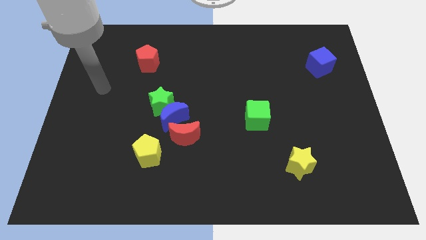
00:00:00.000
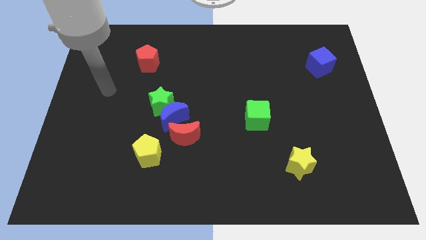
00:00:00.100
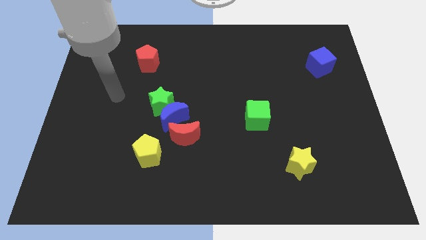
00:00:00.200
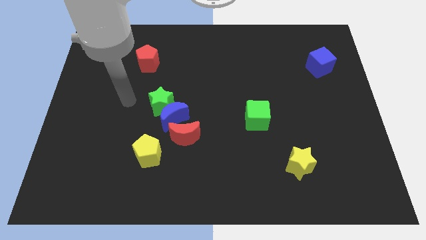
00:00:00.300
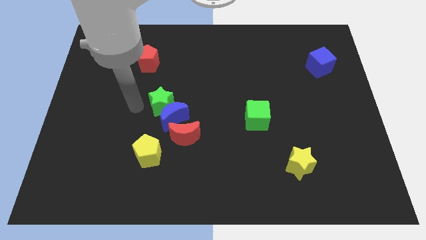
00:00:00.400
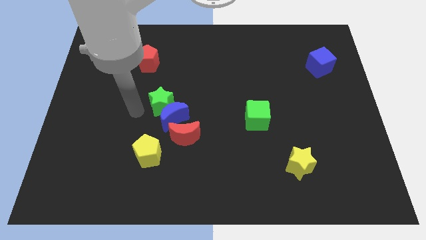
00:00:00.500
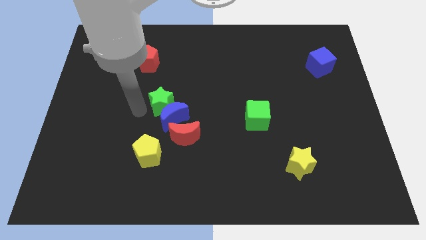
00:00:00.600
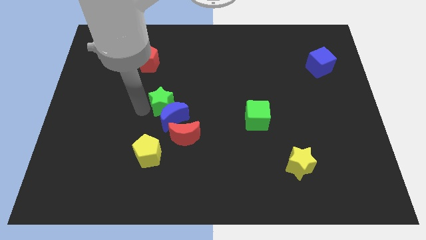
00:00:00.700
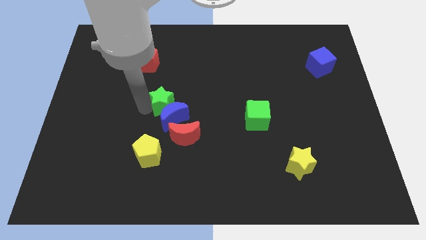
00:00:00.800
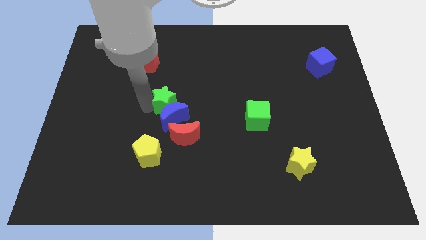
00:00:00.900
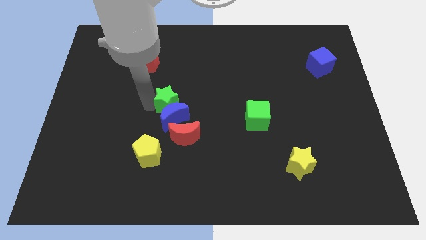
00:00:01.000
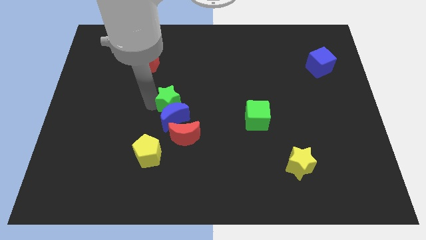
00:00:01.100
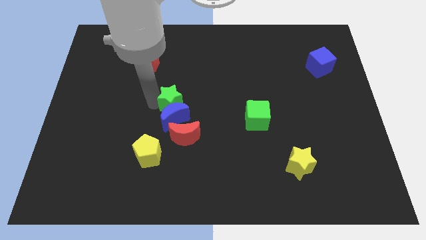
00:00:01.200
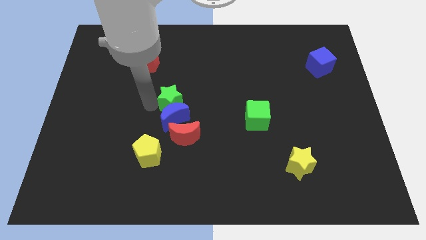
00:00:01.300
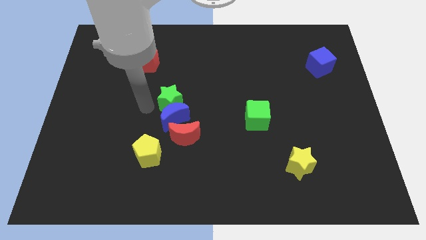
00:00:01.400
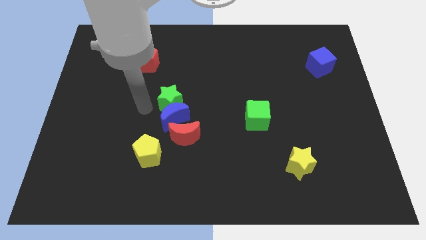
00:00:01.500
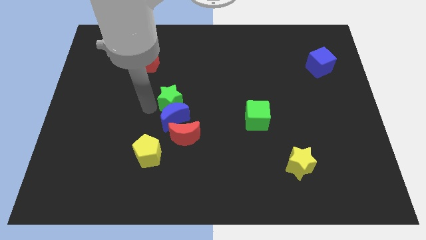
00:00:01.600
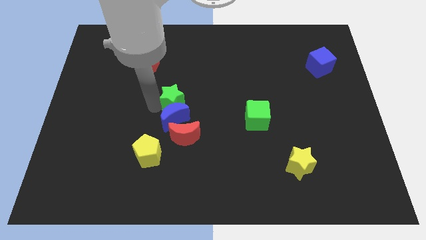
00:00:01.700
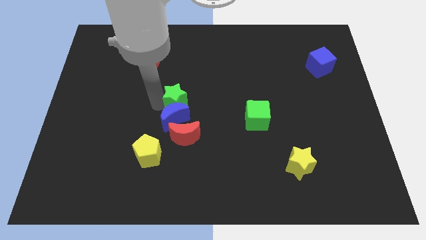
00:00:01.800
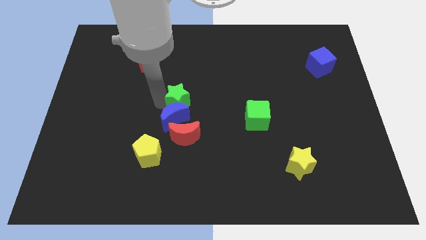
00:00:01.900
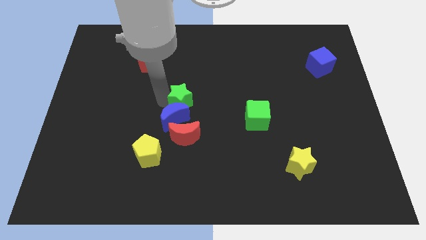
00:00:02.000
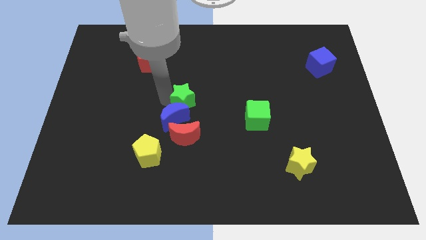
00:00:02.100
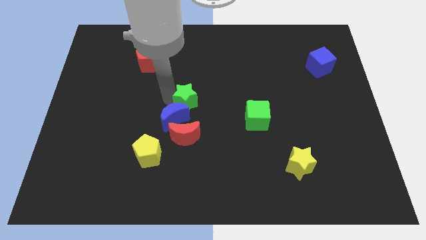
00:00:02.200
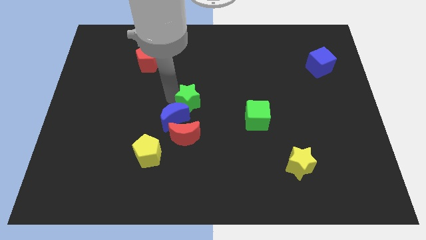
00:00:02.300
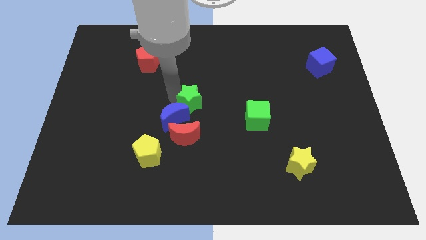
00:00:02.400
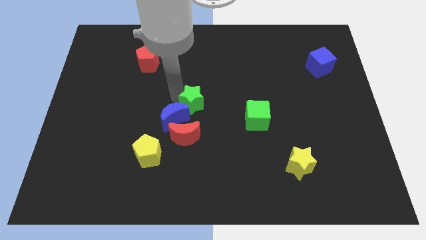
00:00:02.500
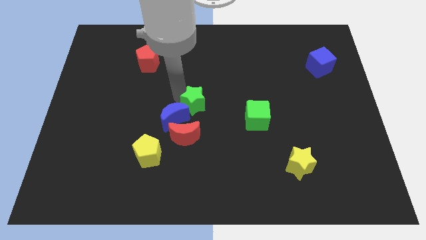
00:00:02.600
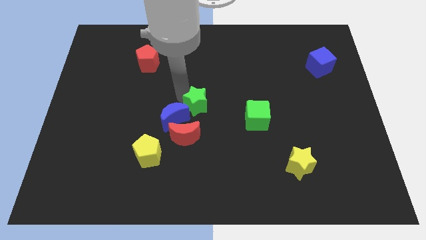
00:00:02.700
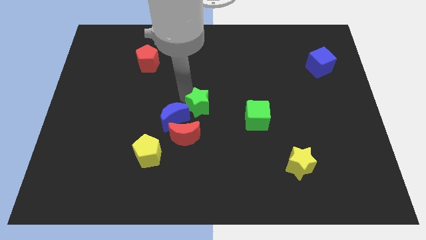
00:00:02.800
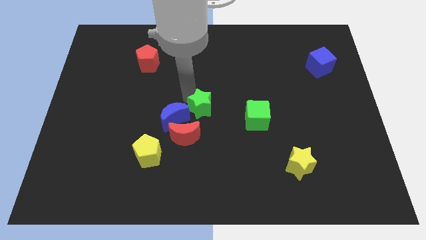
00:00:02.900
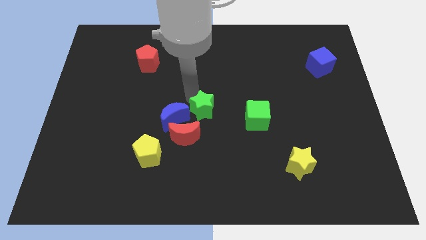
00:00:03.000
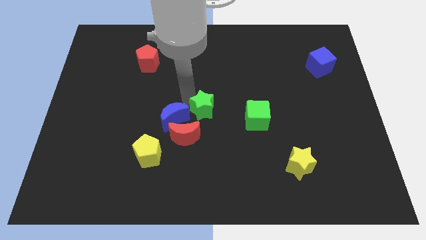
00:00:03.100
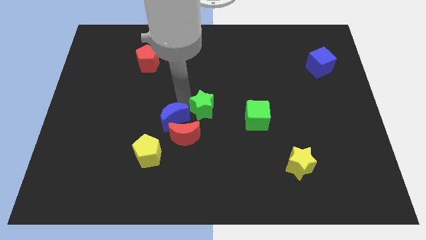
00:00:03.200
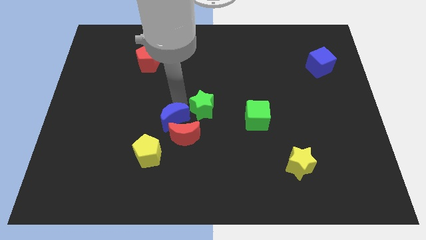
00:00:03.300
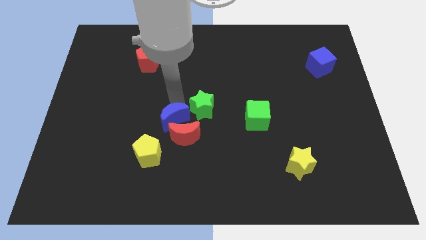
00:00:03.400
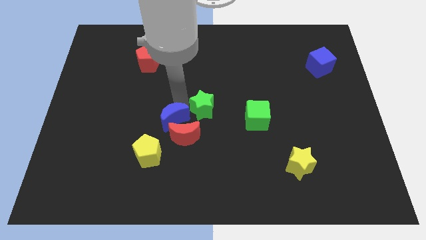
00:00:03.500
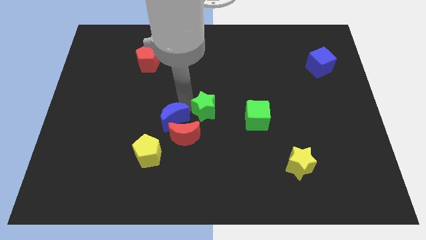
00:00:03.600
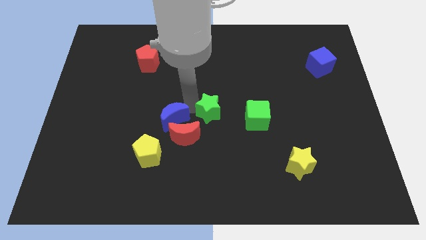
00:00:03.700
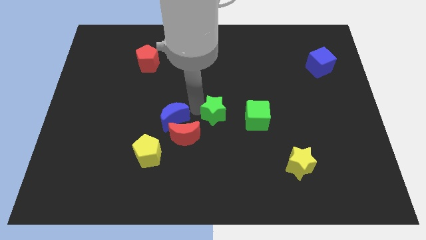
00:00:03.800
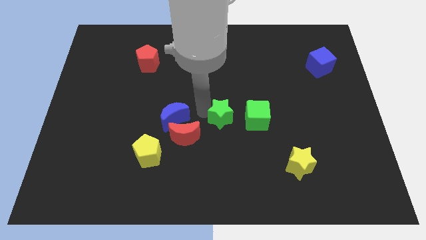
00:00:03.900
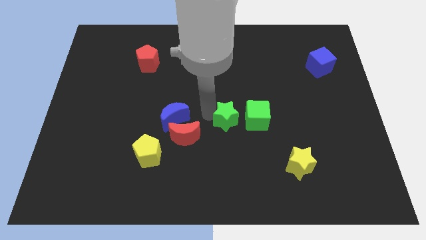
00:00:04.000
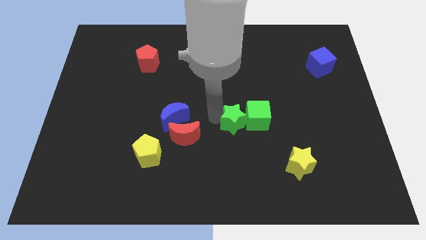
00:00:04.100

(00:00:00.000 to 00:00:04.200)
push the green star close to the green cube

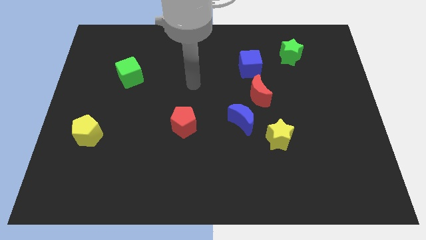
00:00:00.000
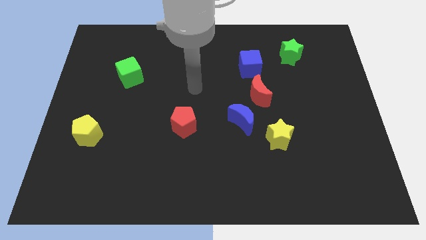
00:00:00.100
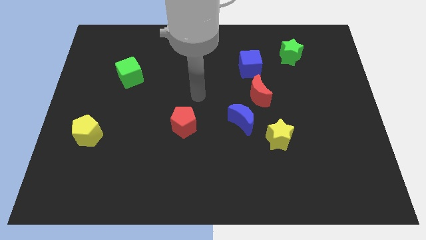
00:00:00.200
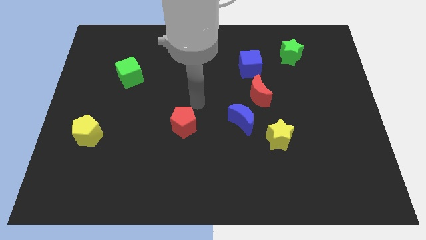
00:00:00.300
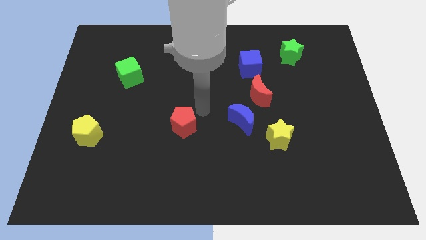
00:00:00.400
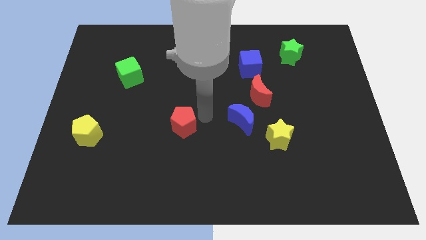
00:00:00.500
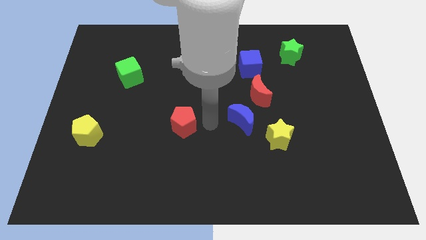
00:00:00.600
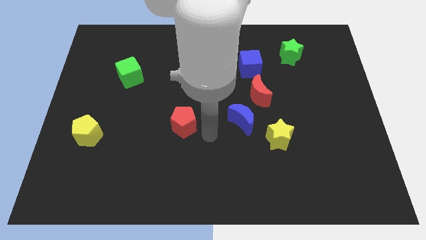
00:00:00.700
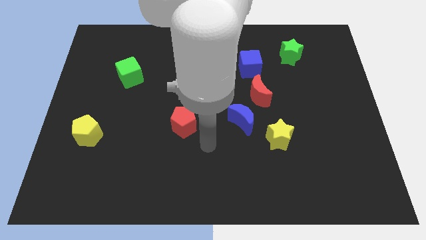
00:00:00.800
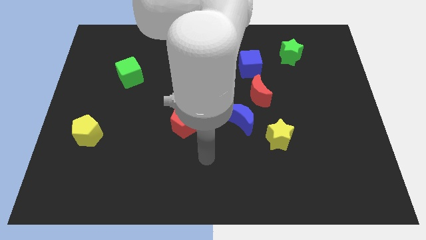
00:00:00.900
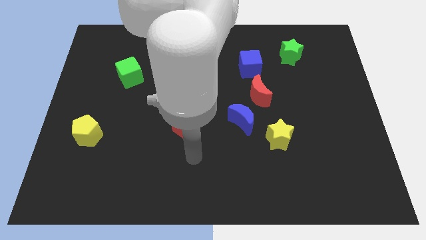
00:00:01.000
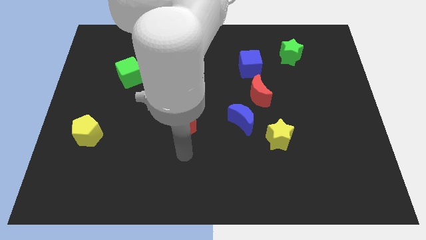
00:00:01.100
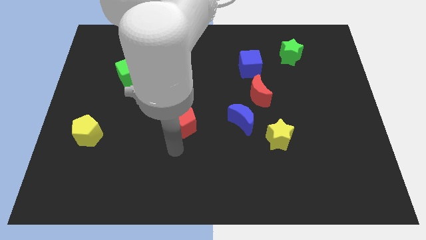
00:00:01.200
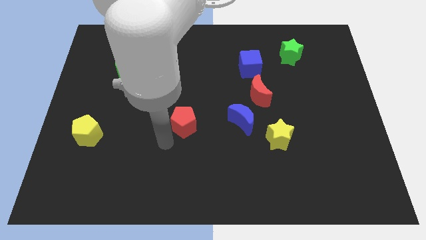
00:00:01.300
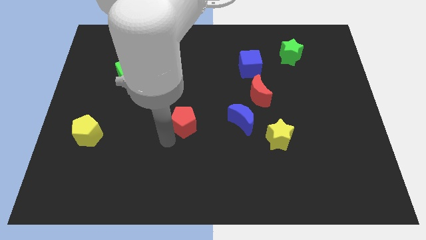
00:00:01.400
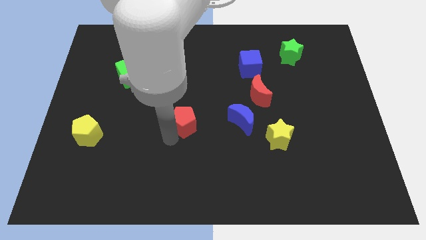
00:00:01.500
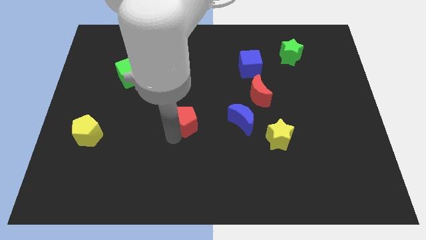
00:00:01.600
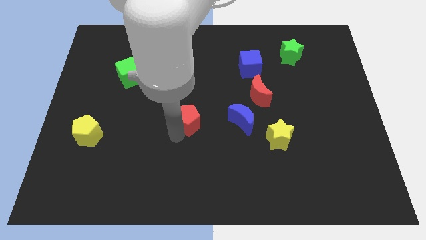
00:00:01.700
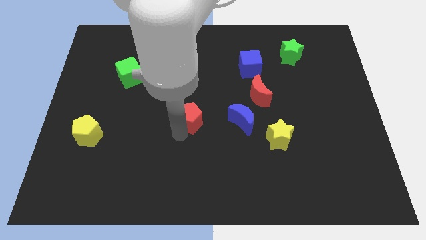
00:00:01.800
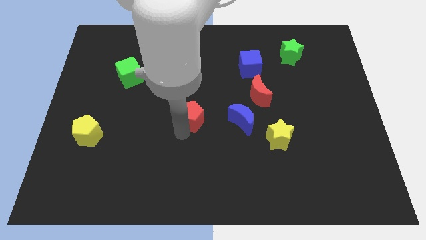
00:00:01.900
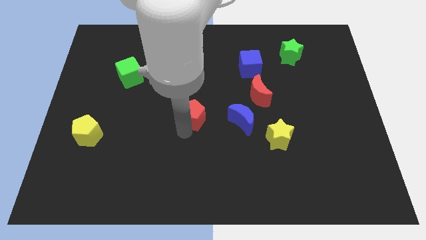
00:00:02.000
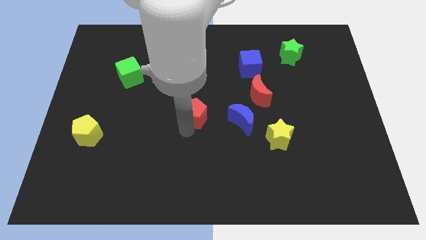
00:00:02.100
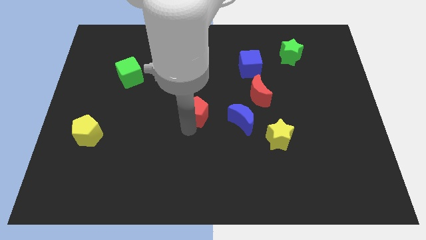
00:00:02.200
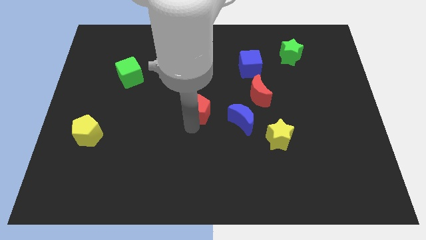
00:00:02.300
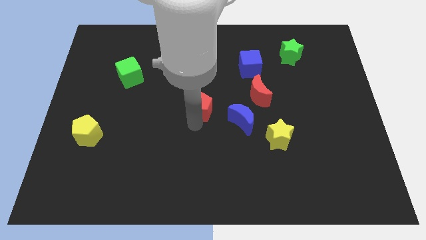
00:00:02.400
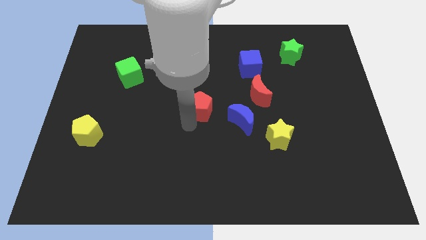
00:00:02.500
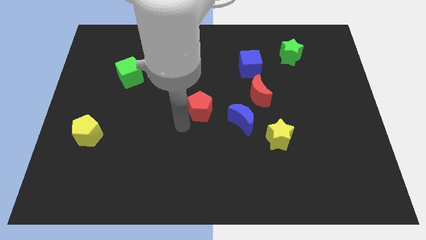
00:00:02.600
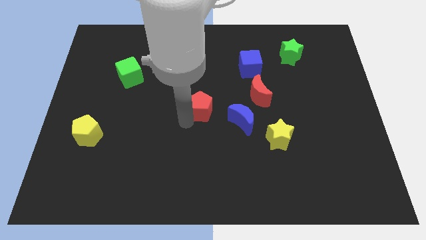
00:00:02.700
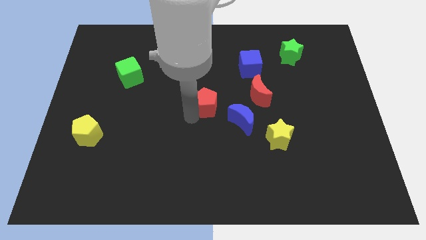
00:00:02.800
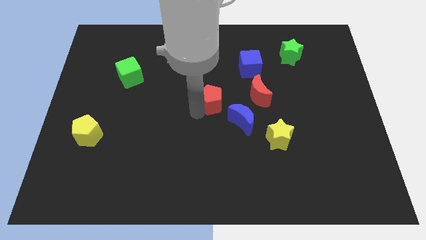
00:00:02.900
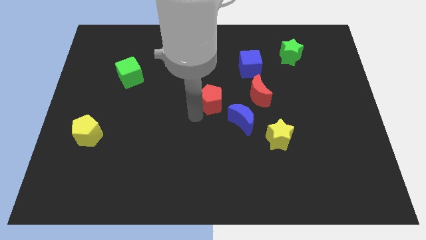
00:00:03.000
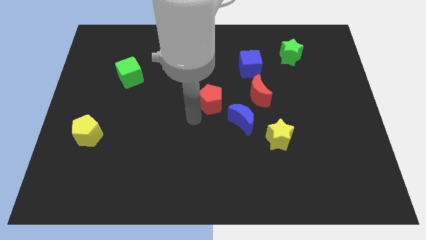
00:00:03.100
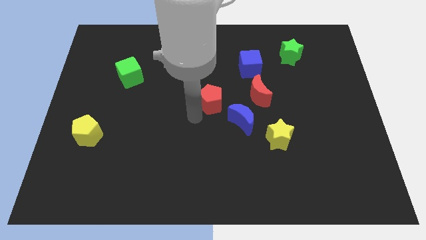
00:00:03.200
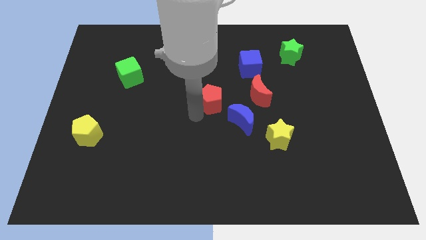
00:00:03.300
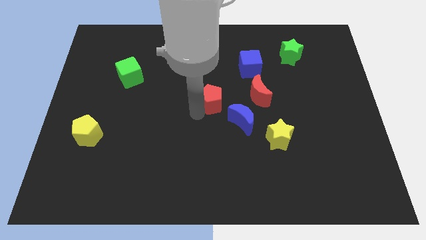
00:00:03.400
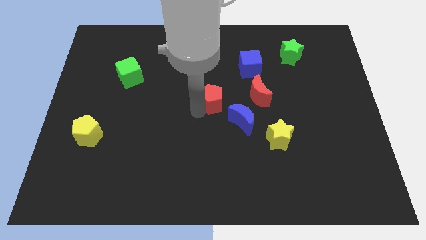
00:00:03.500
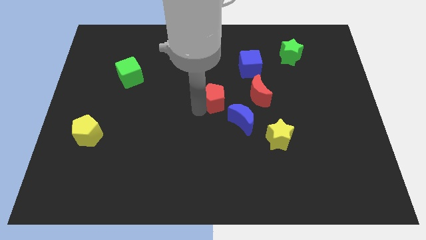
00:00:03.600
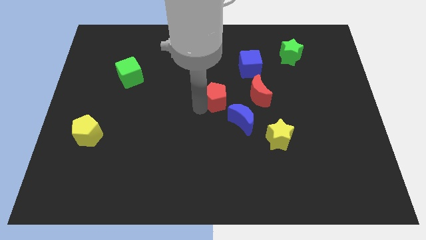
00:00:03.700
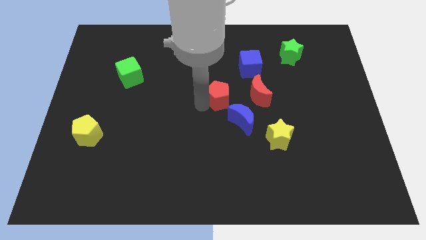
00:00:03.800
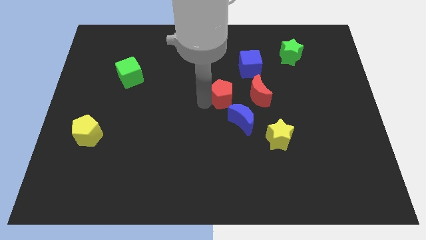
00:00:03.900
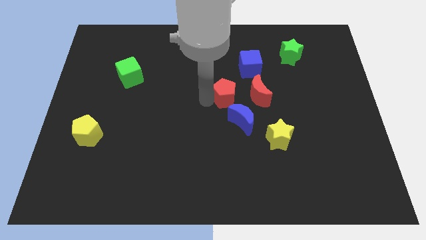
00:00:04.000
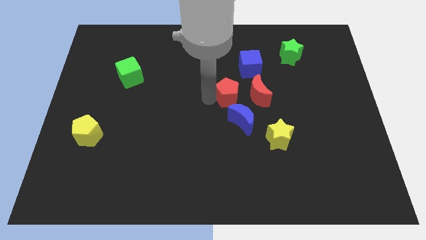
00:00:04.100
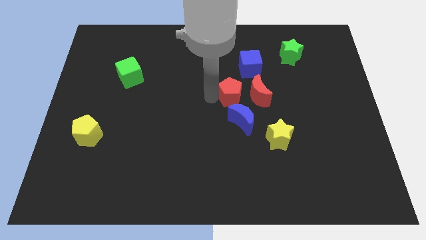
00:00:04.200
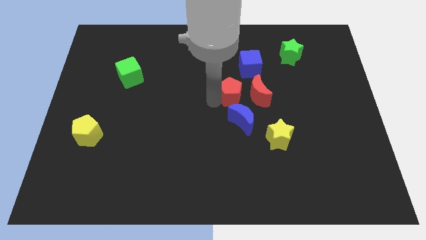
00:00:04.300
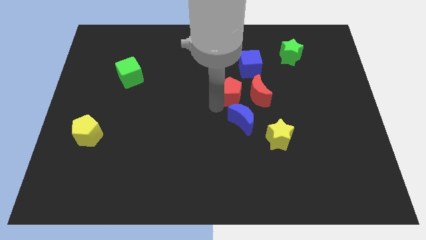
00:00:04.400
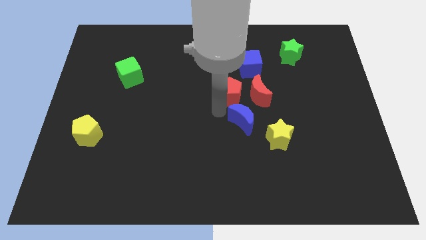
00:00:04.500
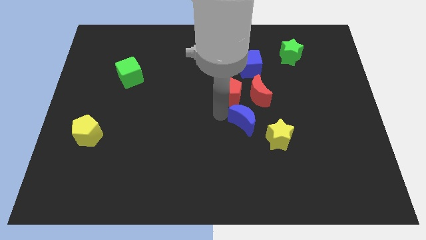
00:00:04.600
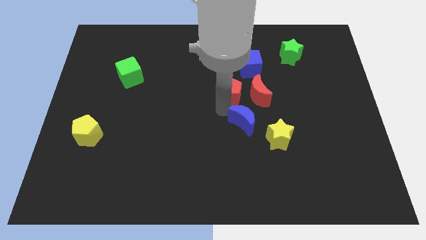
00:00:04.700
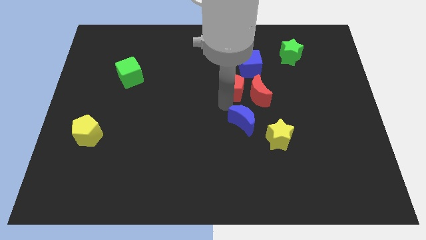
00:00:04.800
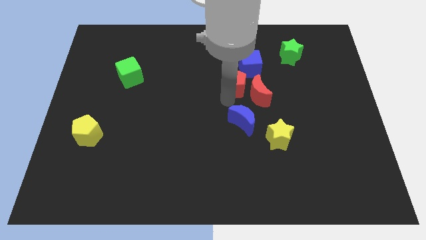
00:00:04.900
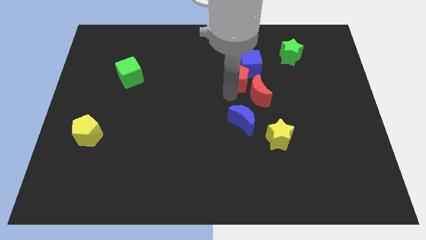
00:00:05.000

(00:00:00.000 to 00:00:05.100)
push the red pentagon close to the blue cube
